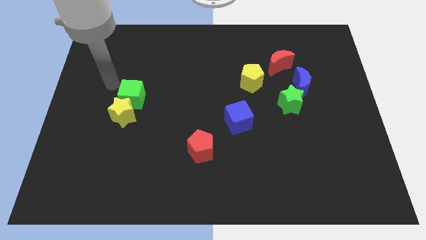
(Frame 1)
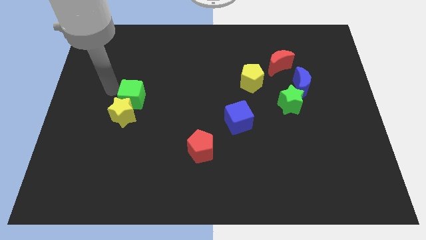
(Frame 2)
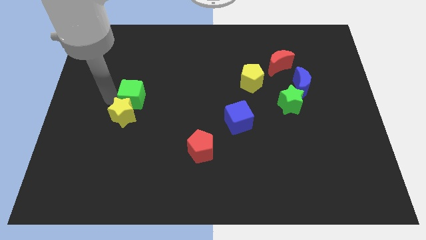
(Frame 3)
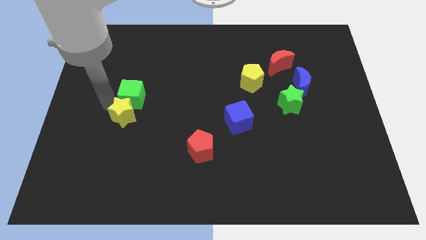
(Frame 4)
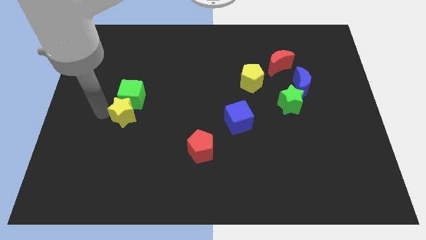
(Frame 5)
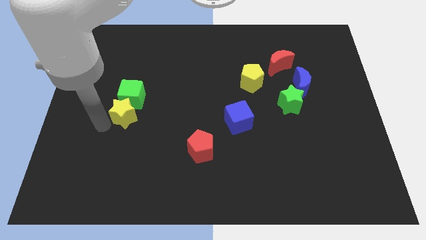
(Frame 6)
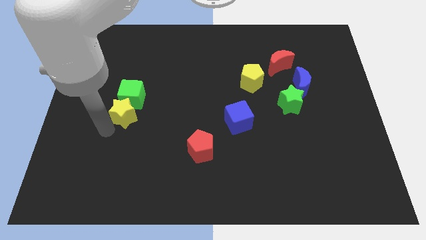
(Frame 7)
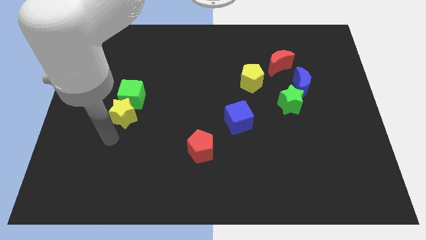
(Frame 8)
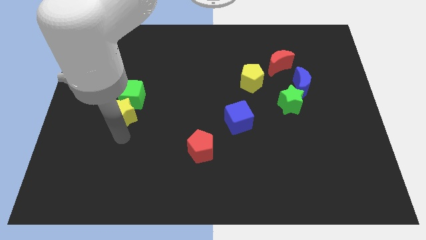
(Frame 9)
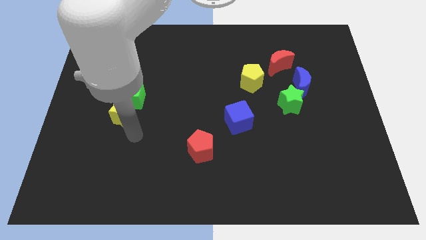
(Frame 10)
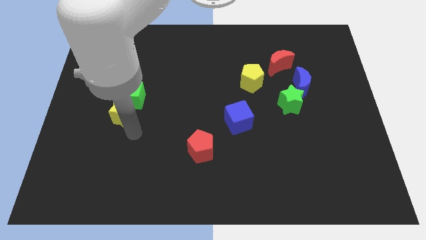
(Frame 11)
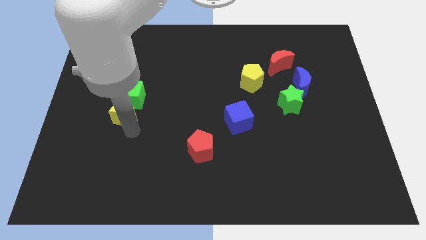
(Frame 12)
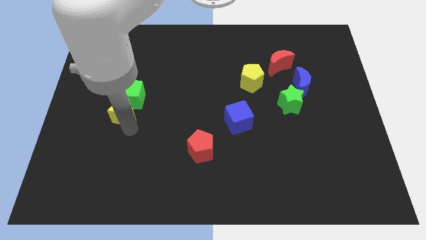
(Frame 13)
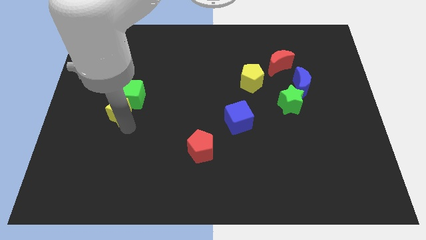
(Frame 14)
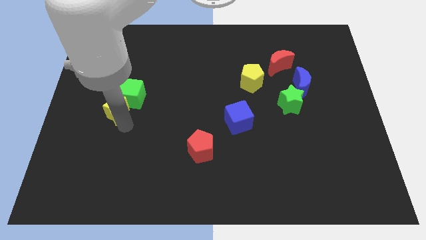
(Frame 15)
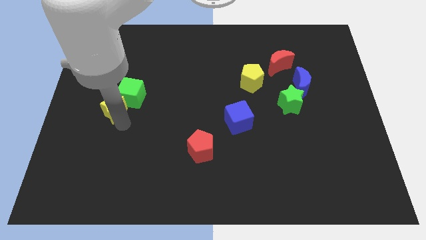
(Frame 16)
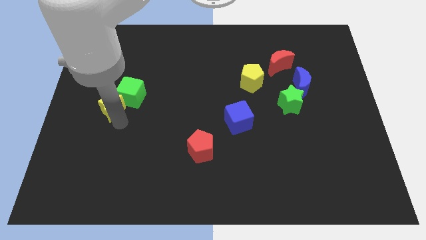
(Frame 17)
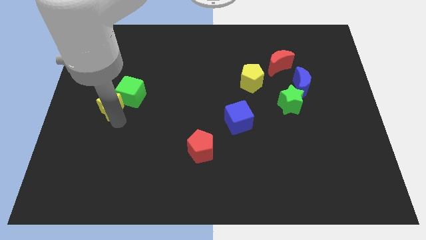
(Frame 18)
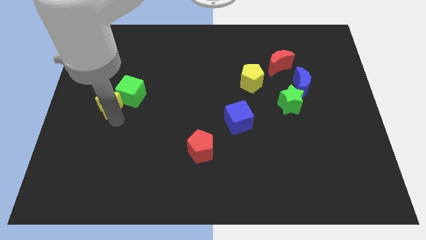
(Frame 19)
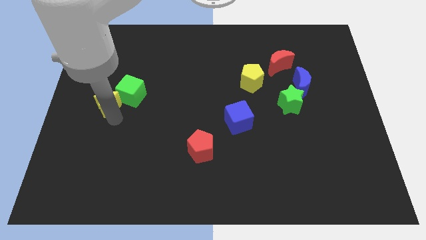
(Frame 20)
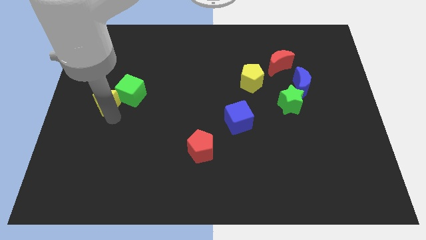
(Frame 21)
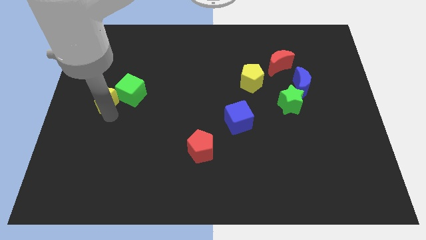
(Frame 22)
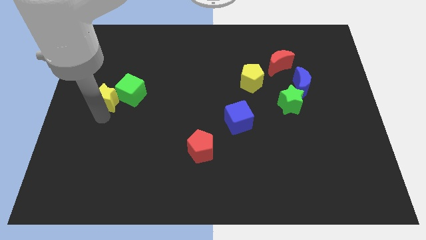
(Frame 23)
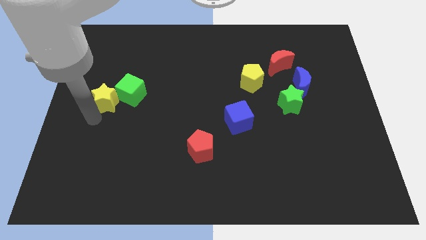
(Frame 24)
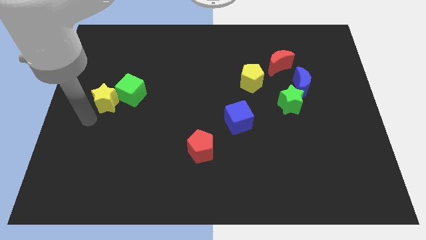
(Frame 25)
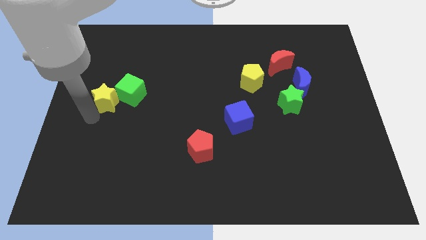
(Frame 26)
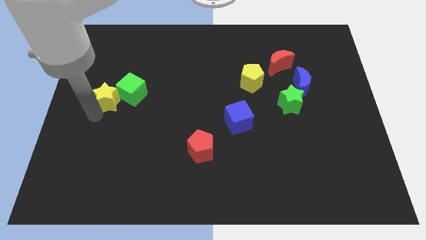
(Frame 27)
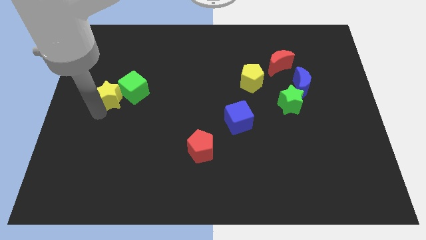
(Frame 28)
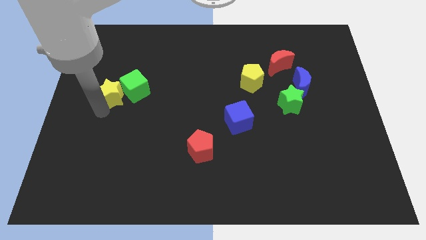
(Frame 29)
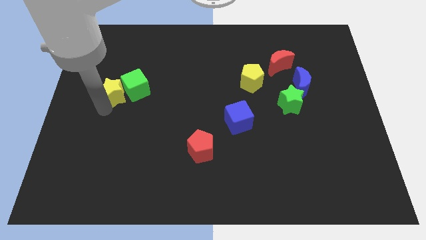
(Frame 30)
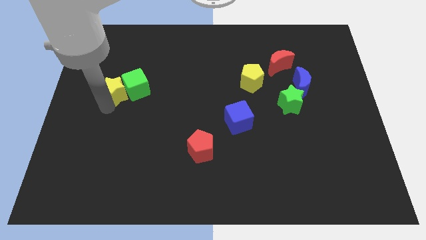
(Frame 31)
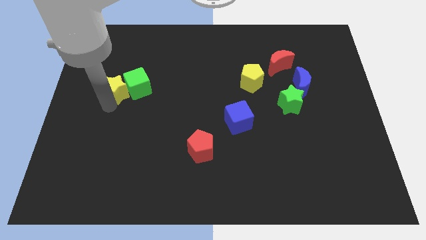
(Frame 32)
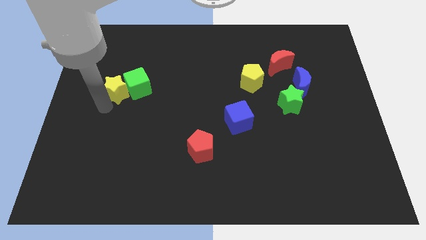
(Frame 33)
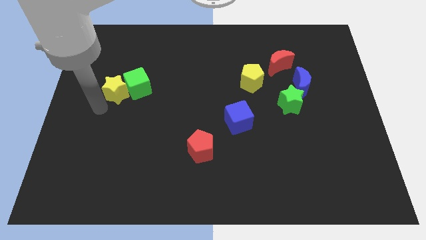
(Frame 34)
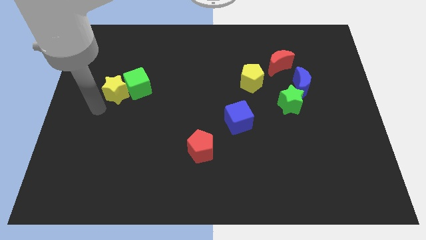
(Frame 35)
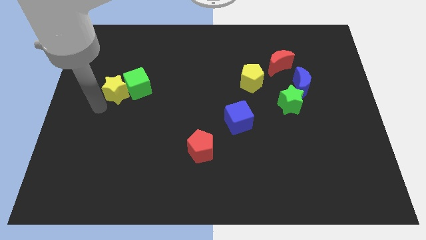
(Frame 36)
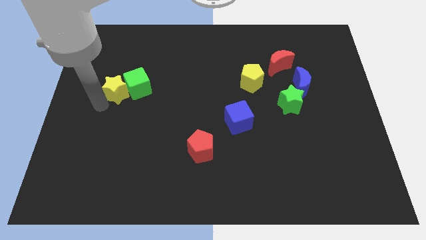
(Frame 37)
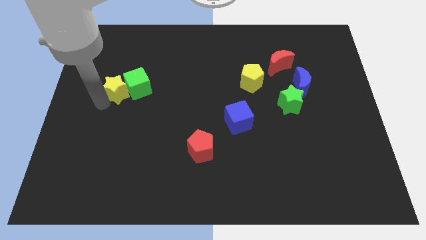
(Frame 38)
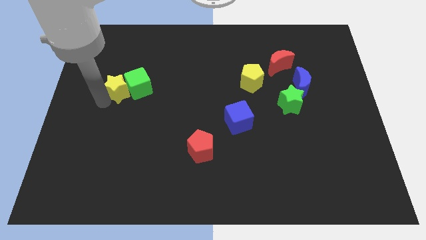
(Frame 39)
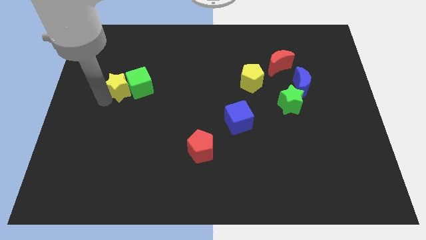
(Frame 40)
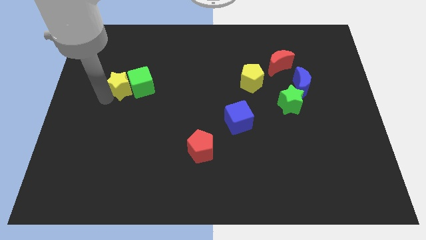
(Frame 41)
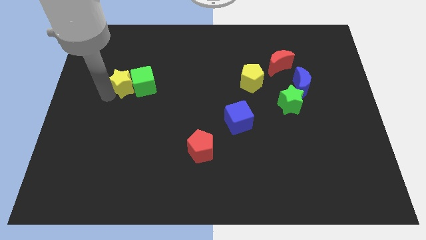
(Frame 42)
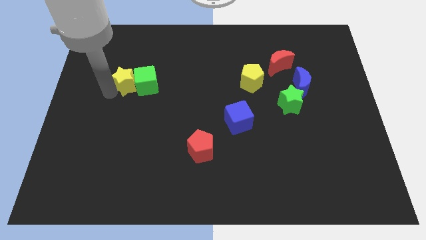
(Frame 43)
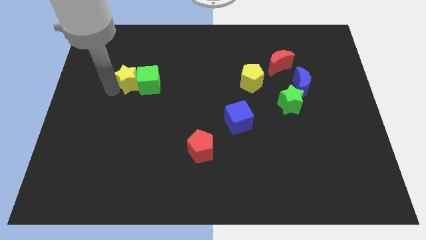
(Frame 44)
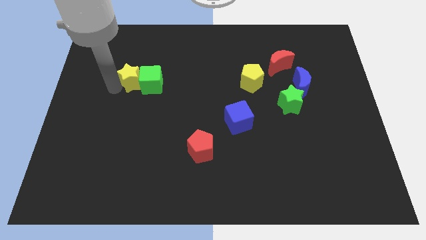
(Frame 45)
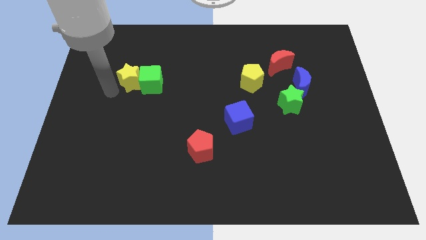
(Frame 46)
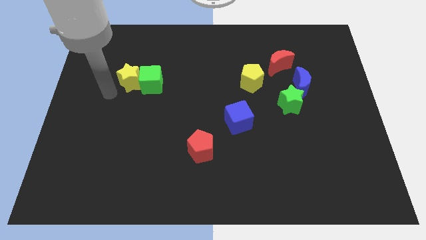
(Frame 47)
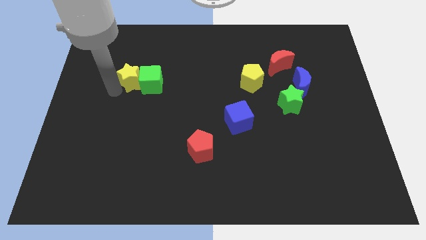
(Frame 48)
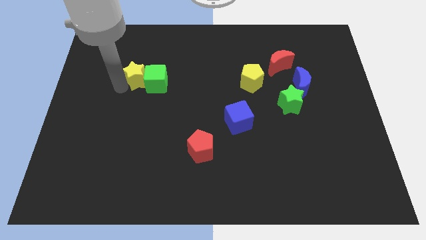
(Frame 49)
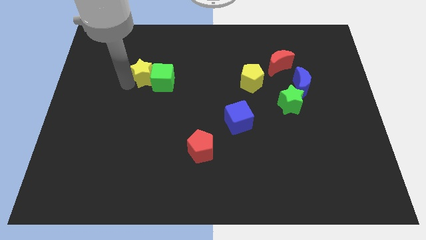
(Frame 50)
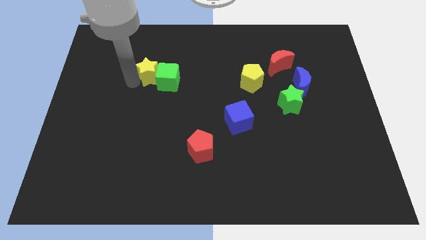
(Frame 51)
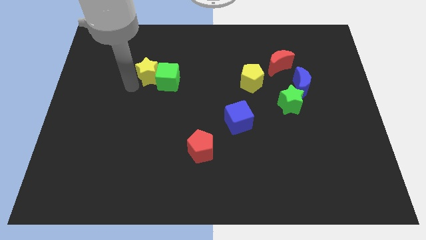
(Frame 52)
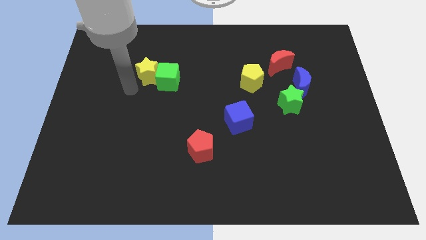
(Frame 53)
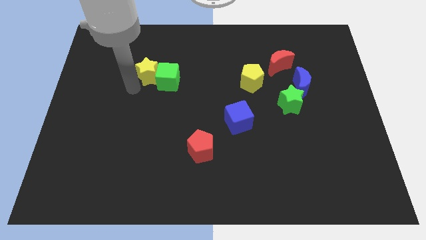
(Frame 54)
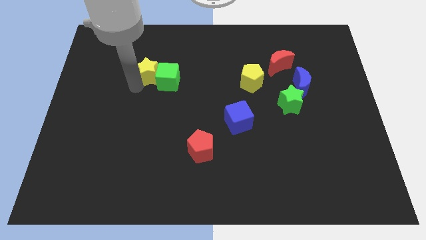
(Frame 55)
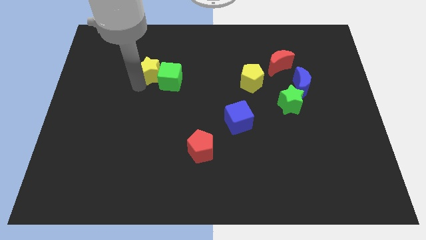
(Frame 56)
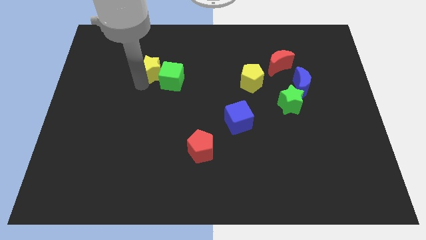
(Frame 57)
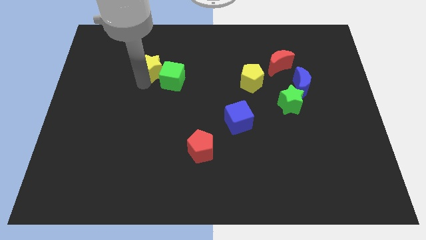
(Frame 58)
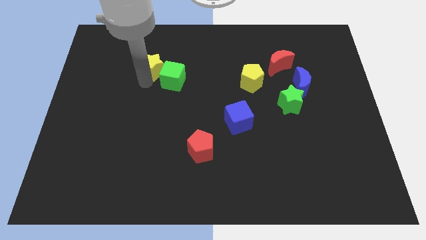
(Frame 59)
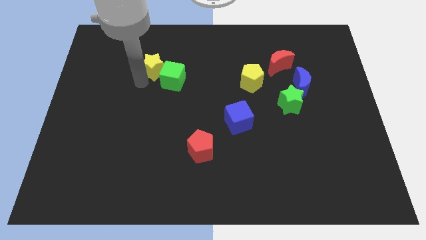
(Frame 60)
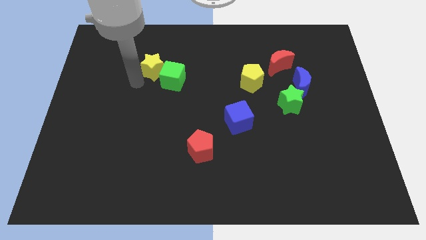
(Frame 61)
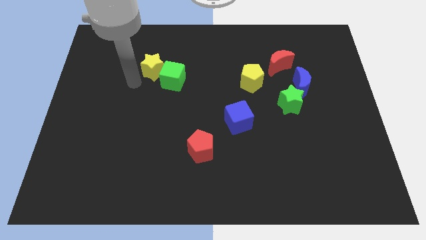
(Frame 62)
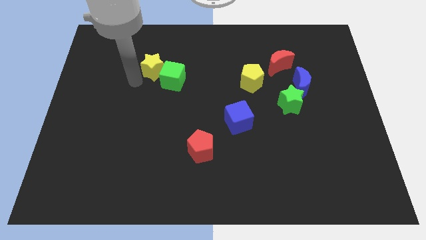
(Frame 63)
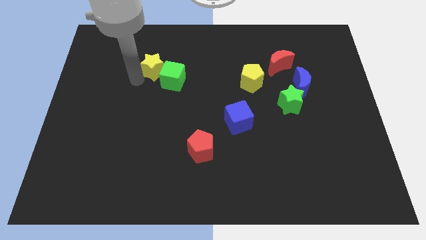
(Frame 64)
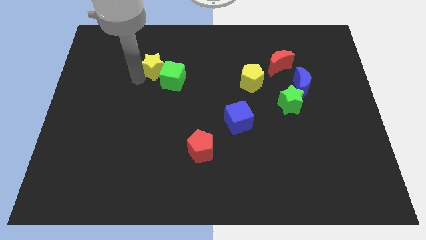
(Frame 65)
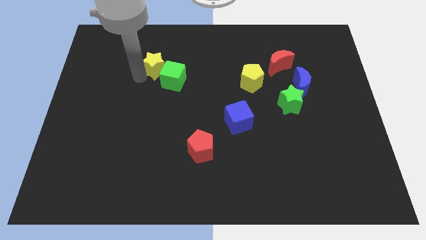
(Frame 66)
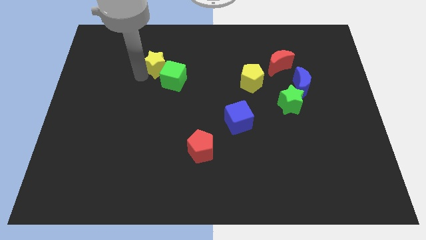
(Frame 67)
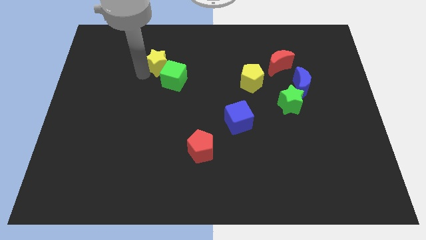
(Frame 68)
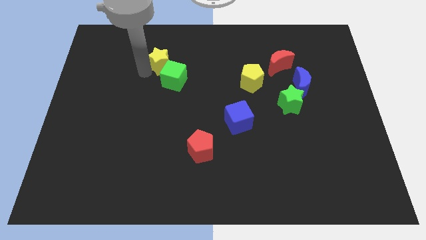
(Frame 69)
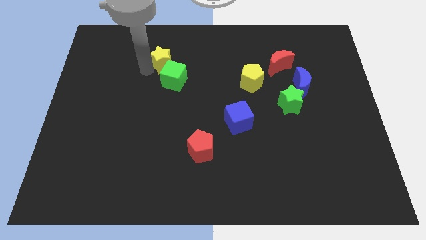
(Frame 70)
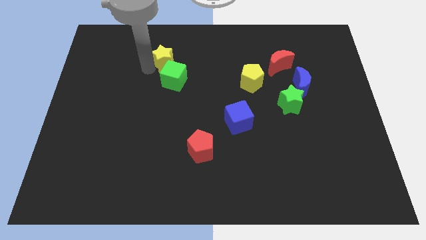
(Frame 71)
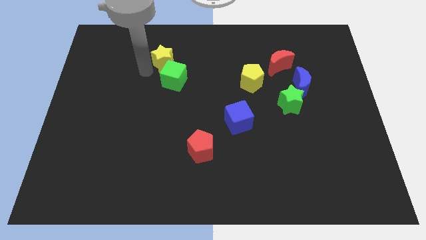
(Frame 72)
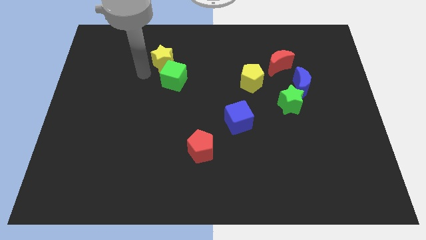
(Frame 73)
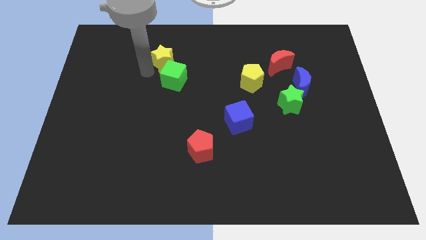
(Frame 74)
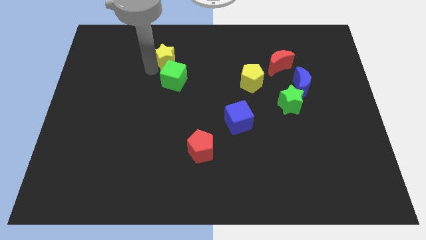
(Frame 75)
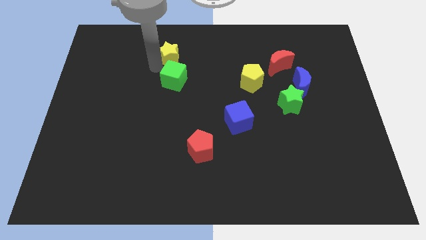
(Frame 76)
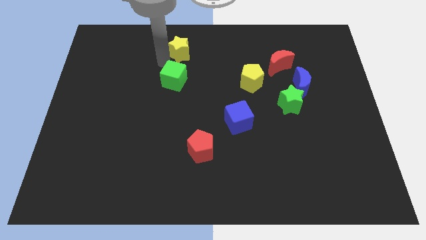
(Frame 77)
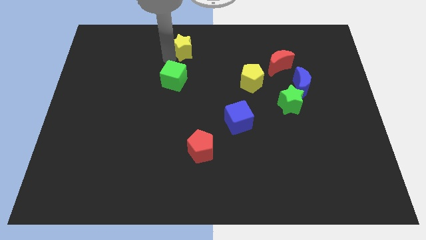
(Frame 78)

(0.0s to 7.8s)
move the yellow star to the towards your base
